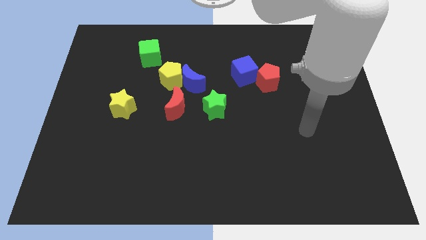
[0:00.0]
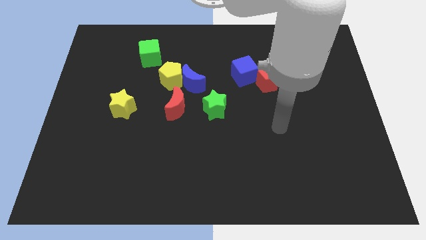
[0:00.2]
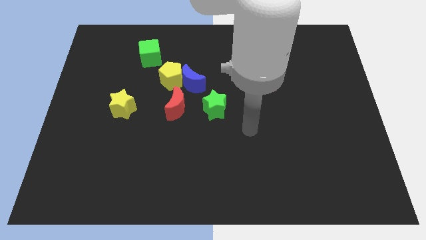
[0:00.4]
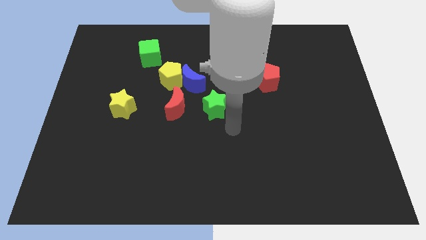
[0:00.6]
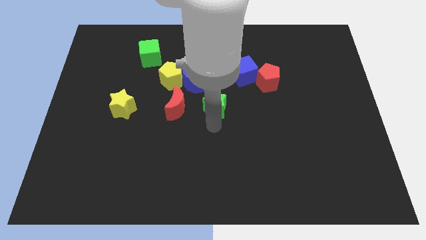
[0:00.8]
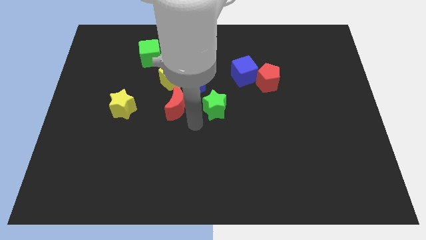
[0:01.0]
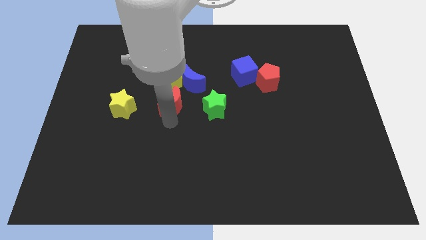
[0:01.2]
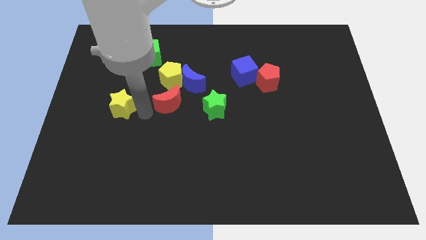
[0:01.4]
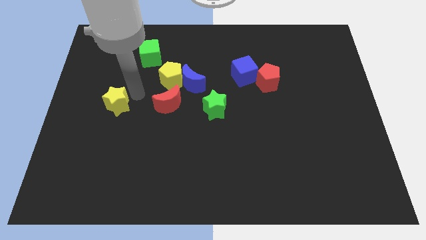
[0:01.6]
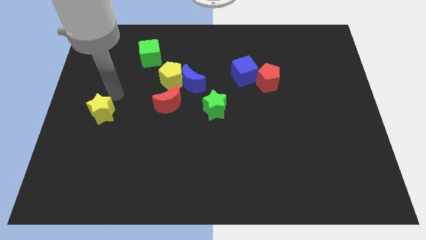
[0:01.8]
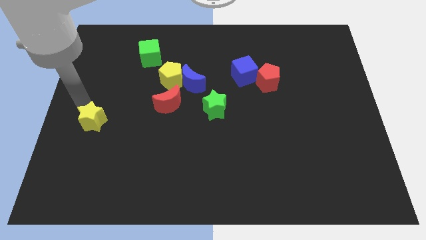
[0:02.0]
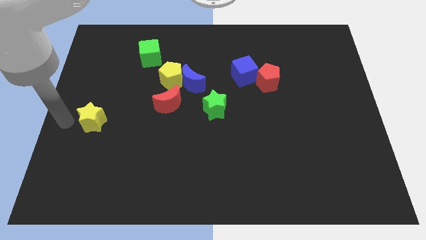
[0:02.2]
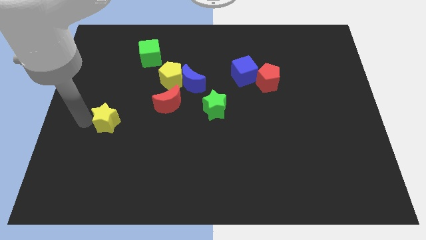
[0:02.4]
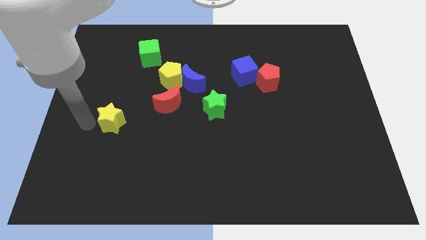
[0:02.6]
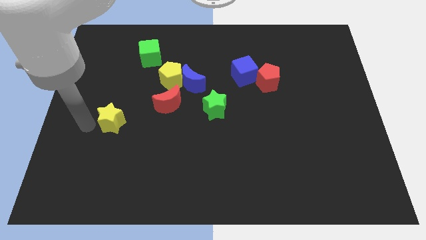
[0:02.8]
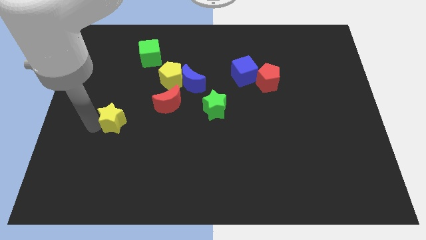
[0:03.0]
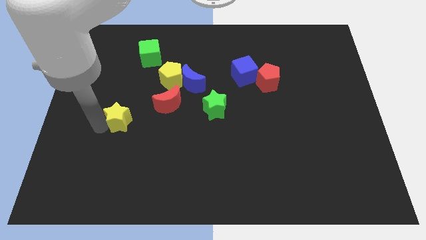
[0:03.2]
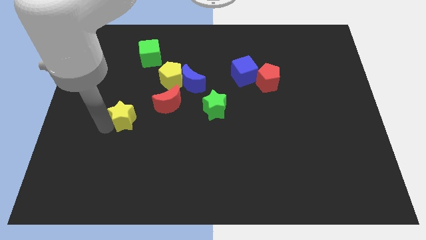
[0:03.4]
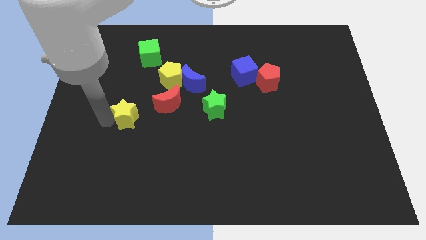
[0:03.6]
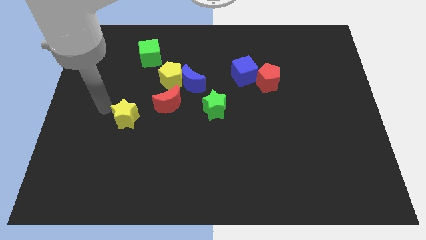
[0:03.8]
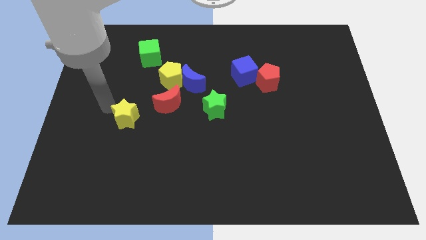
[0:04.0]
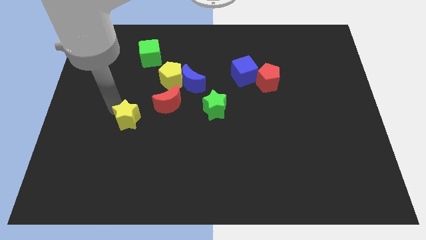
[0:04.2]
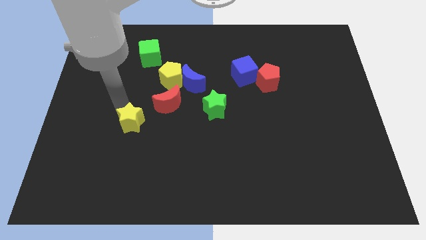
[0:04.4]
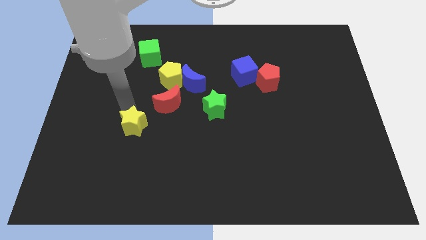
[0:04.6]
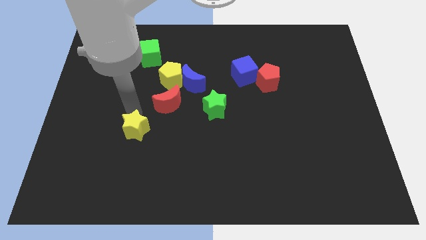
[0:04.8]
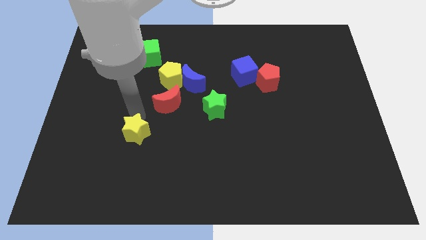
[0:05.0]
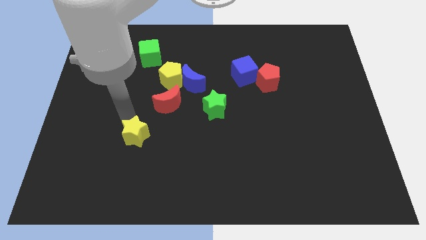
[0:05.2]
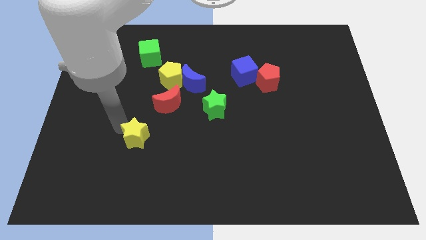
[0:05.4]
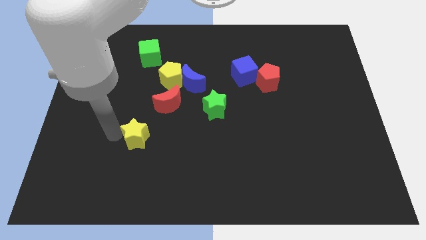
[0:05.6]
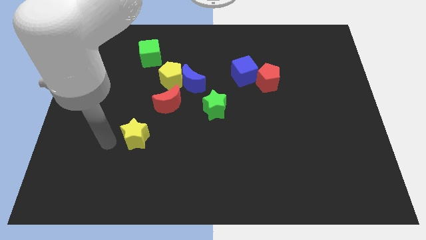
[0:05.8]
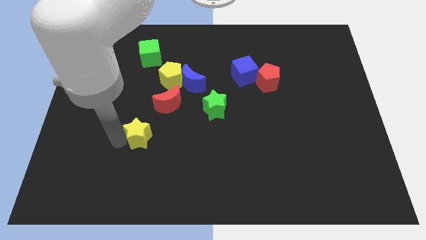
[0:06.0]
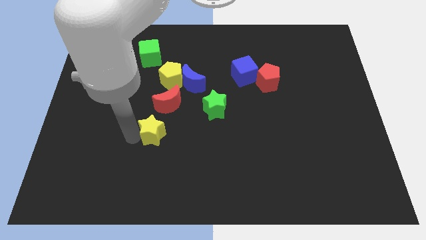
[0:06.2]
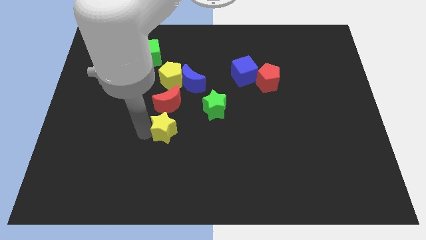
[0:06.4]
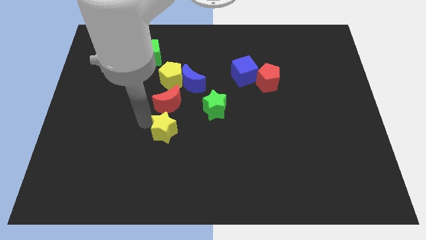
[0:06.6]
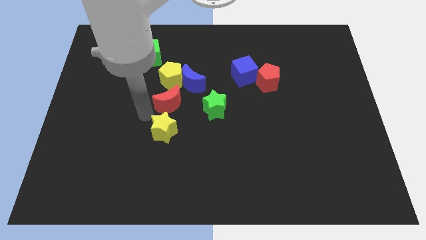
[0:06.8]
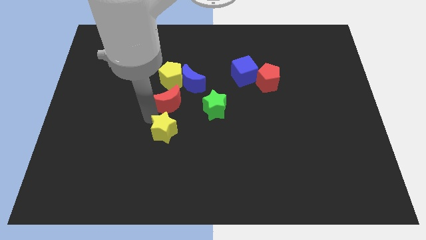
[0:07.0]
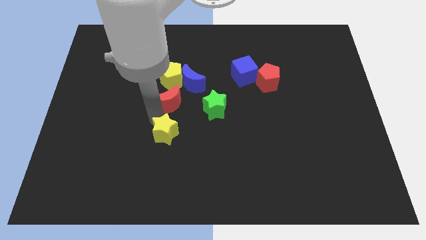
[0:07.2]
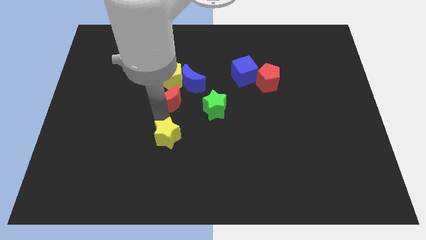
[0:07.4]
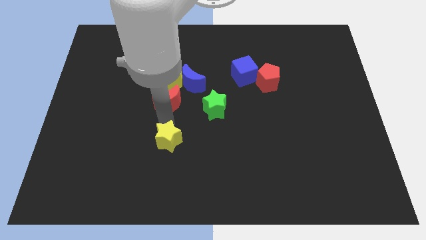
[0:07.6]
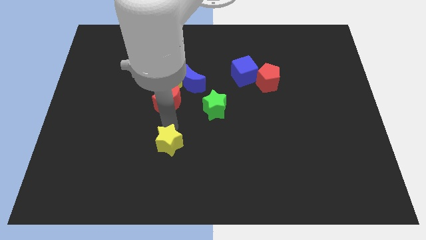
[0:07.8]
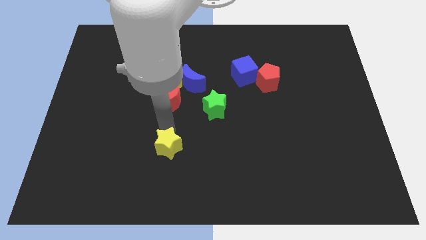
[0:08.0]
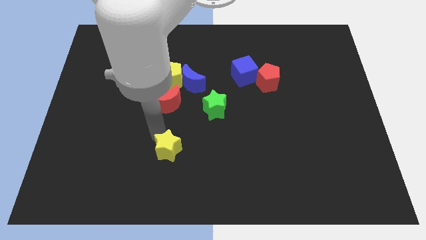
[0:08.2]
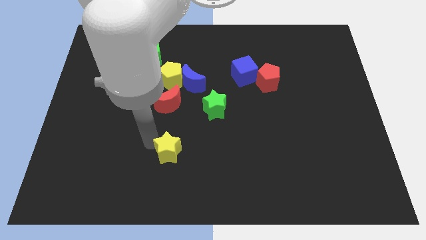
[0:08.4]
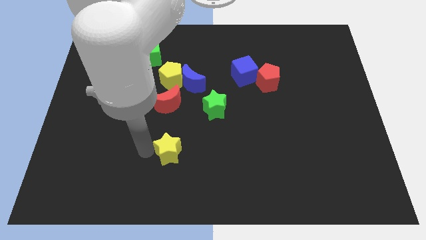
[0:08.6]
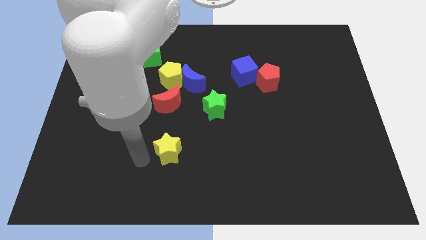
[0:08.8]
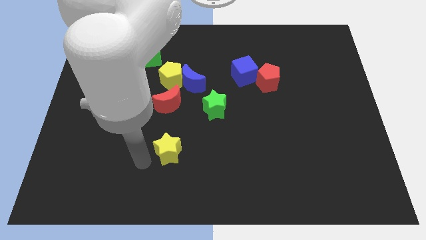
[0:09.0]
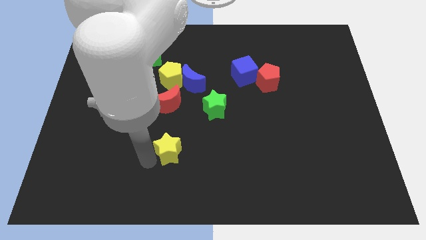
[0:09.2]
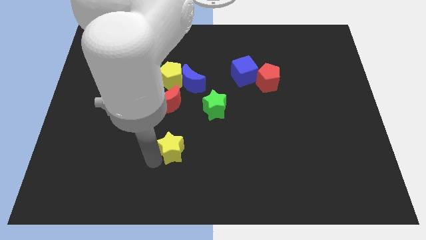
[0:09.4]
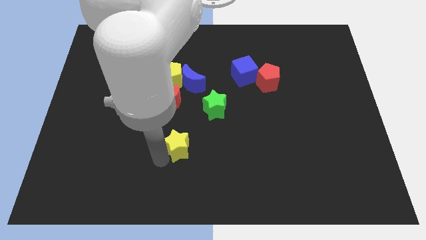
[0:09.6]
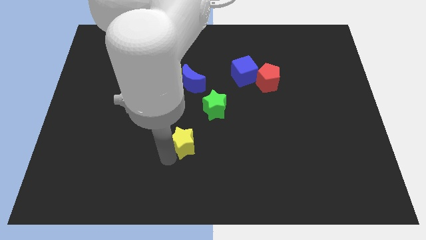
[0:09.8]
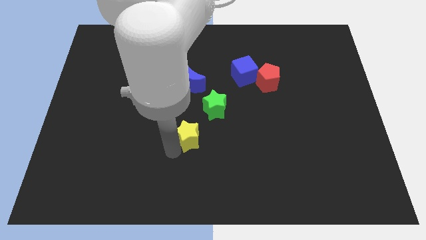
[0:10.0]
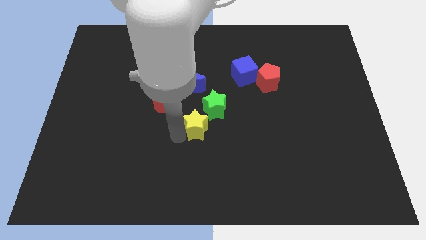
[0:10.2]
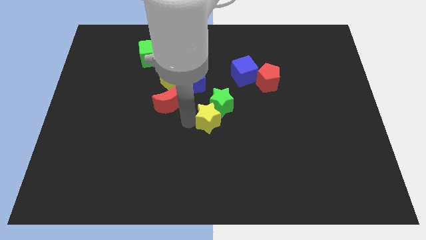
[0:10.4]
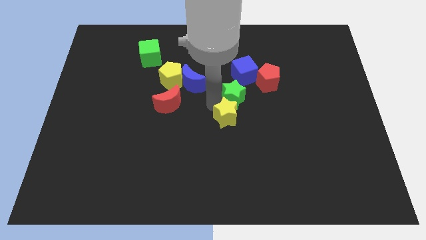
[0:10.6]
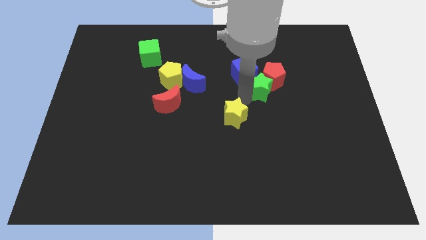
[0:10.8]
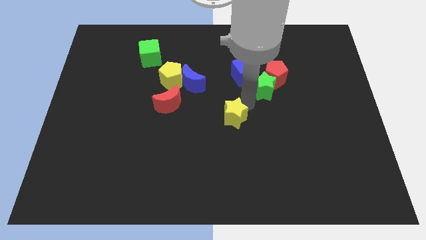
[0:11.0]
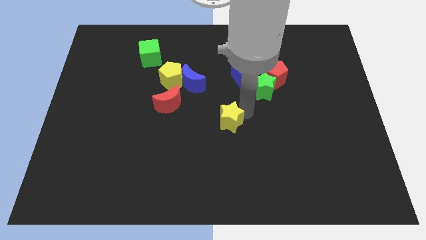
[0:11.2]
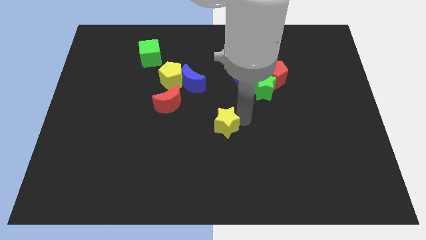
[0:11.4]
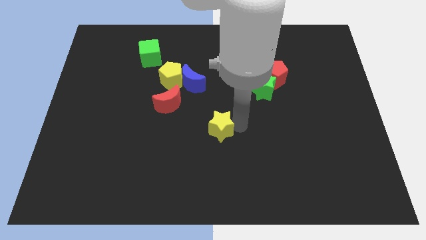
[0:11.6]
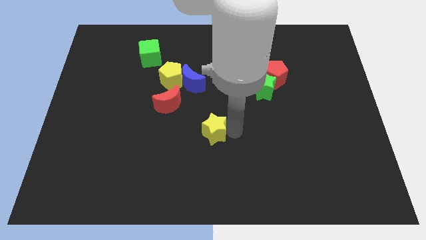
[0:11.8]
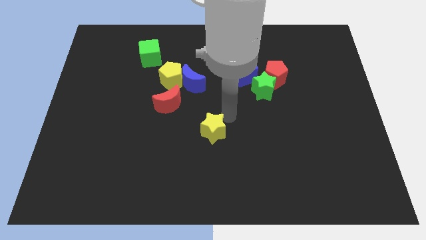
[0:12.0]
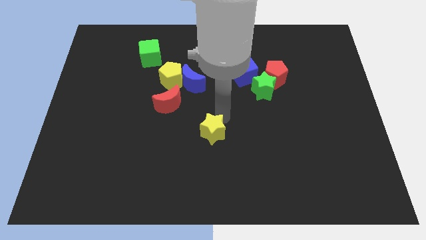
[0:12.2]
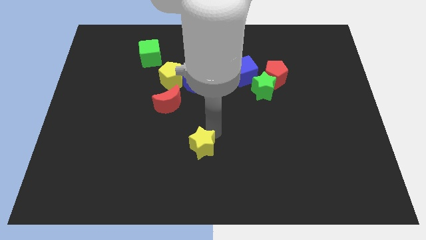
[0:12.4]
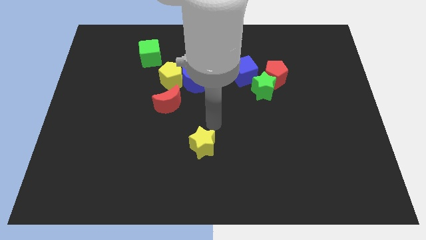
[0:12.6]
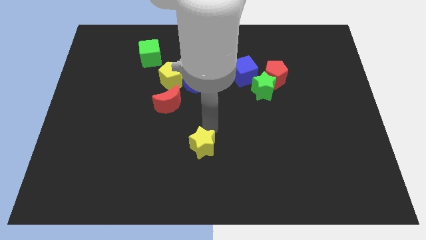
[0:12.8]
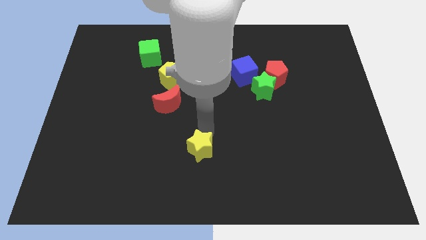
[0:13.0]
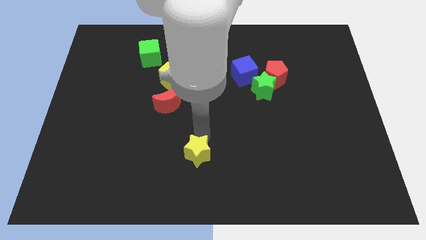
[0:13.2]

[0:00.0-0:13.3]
slide the yellow star to the bottom

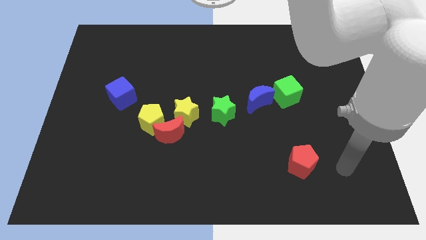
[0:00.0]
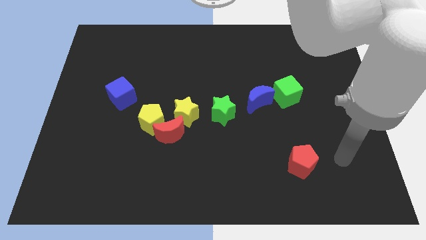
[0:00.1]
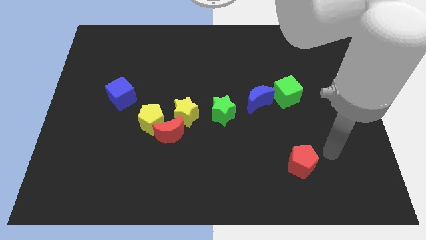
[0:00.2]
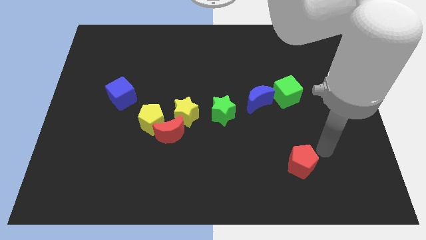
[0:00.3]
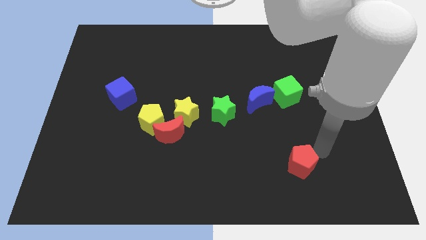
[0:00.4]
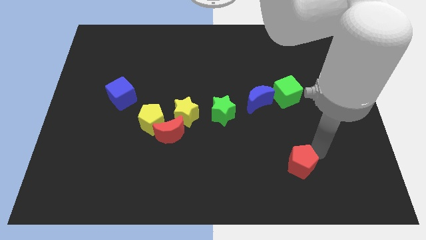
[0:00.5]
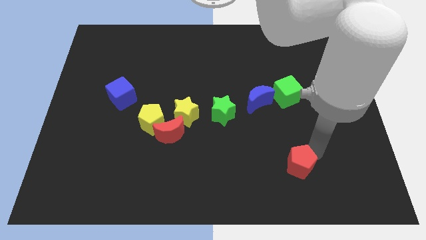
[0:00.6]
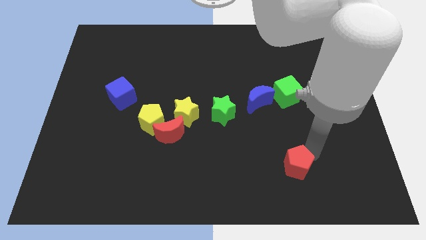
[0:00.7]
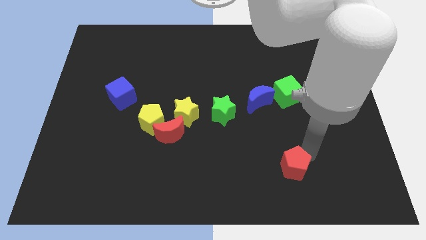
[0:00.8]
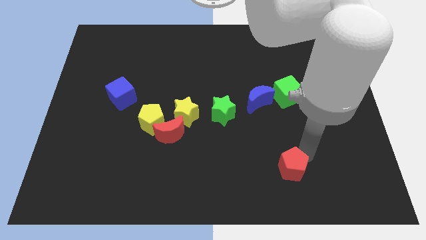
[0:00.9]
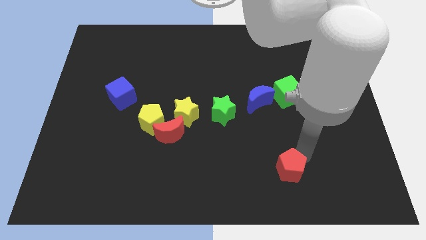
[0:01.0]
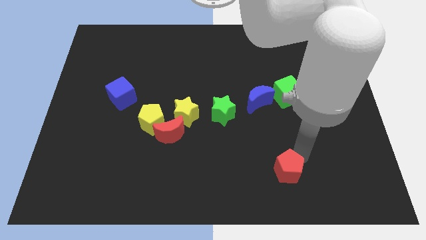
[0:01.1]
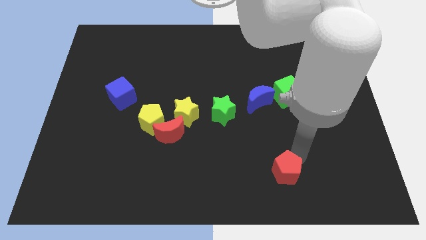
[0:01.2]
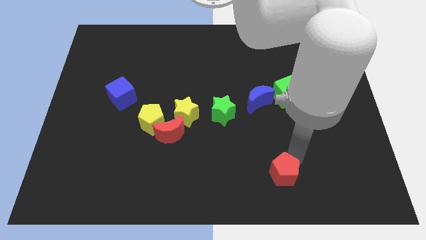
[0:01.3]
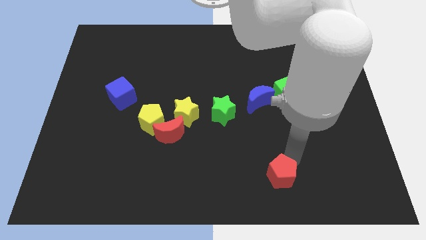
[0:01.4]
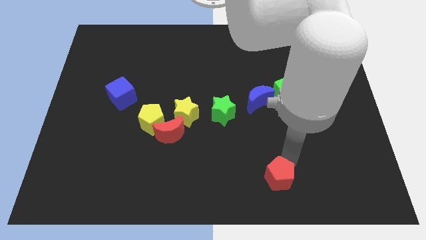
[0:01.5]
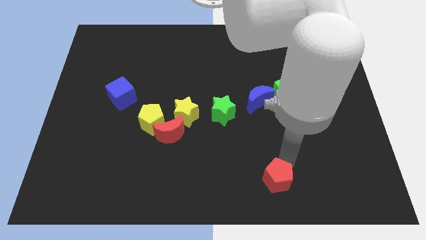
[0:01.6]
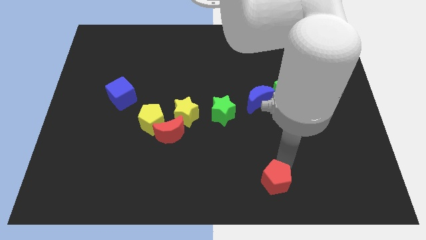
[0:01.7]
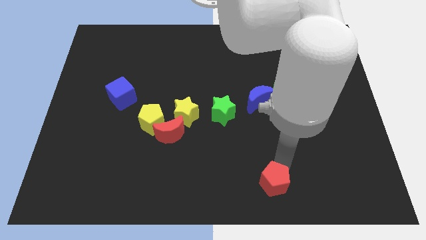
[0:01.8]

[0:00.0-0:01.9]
push the red pentagon to the bottom
